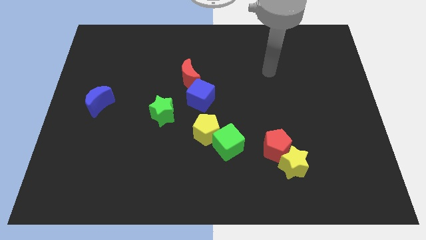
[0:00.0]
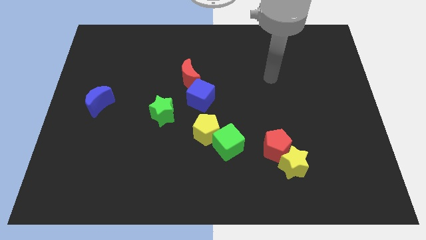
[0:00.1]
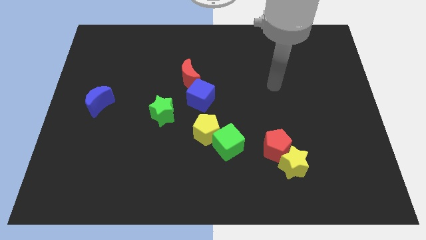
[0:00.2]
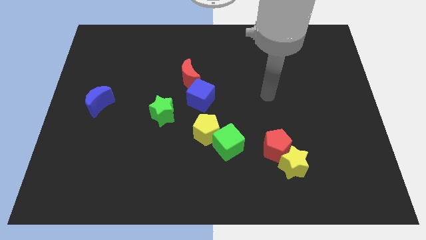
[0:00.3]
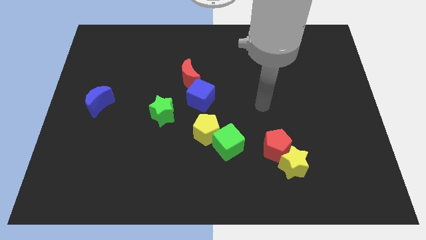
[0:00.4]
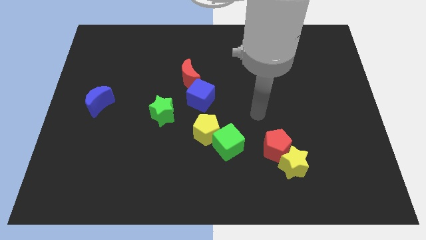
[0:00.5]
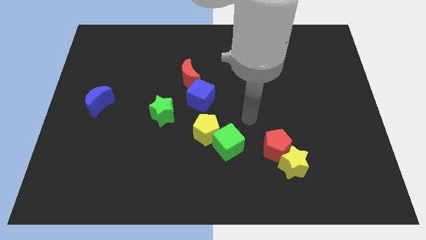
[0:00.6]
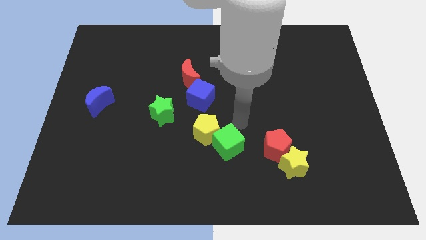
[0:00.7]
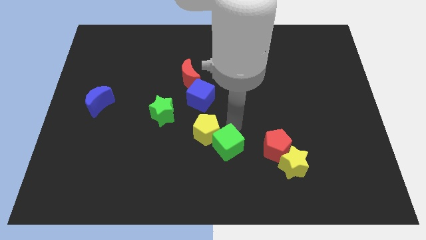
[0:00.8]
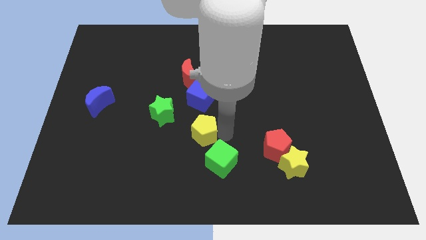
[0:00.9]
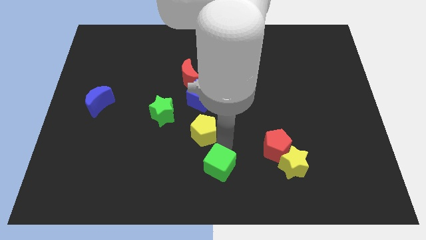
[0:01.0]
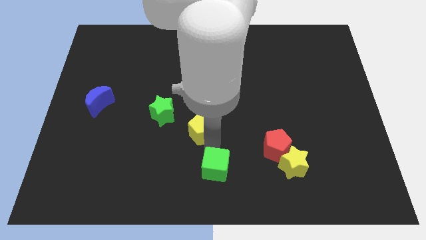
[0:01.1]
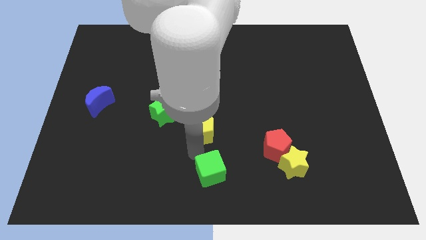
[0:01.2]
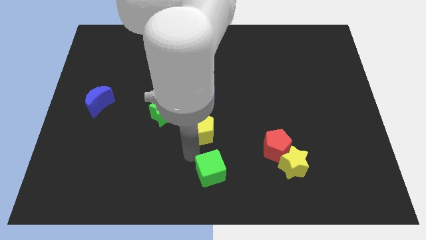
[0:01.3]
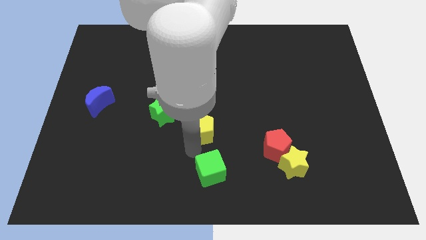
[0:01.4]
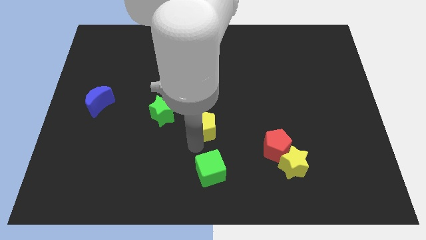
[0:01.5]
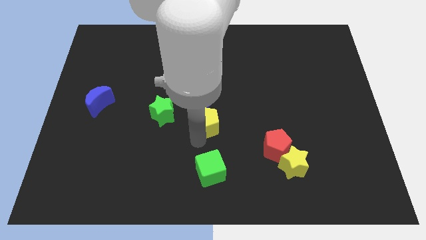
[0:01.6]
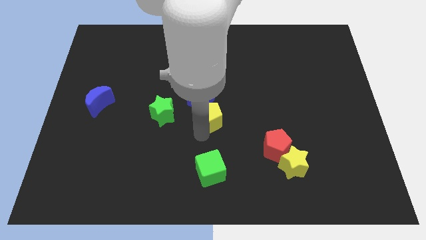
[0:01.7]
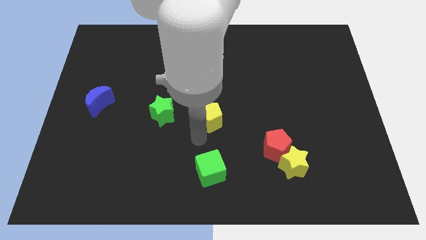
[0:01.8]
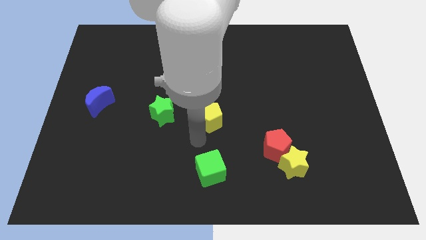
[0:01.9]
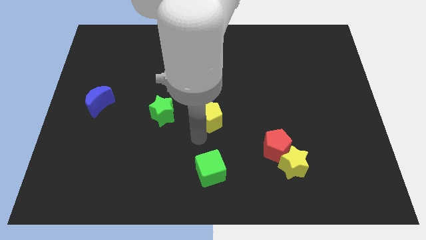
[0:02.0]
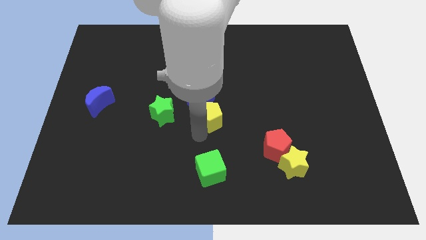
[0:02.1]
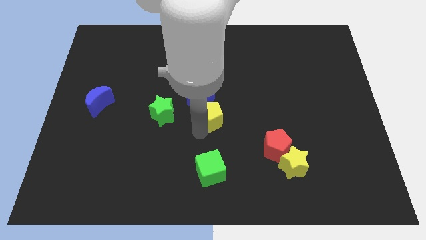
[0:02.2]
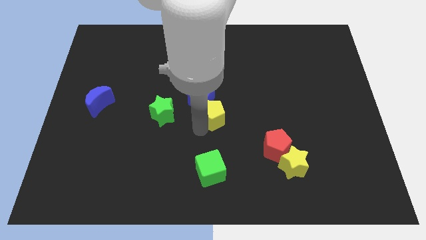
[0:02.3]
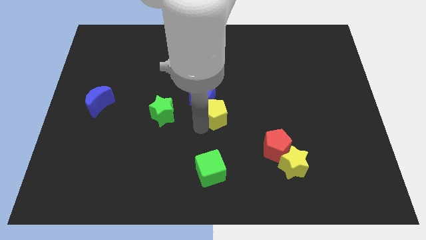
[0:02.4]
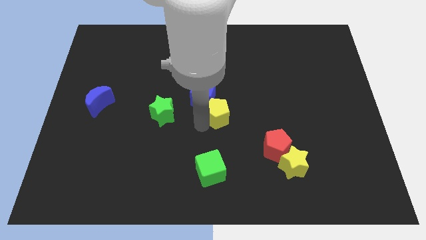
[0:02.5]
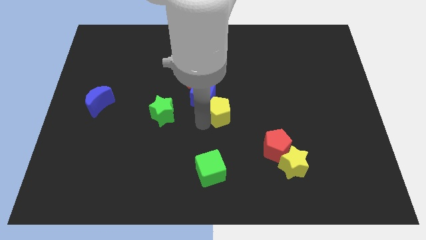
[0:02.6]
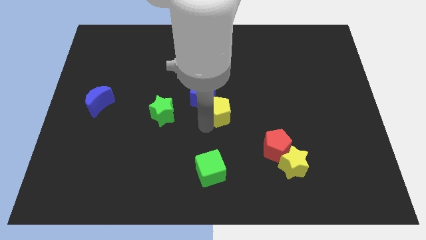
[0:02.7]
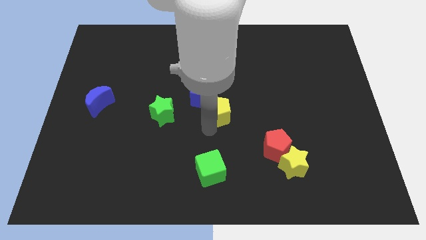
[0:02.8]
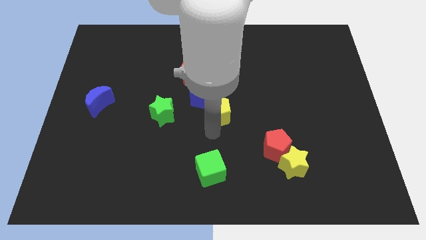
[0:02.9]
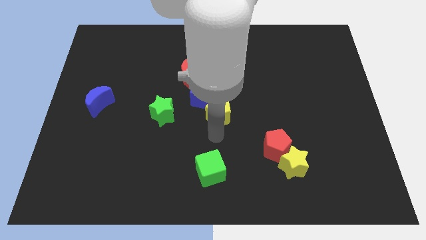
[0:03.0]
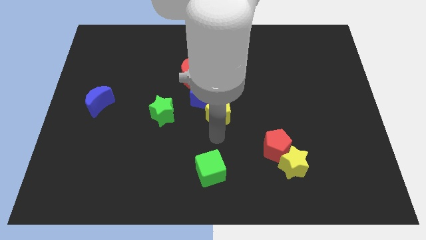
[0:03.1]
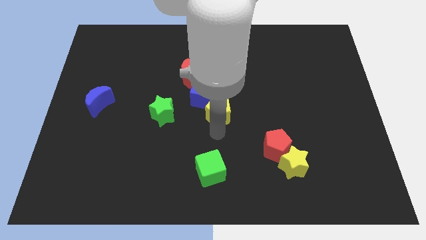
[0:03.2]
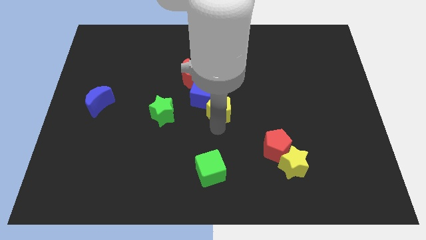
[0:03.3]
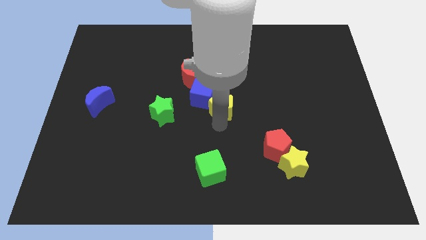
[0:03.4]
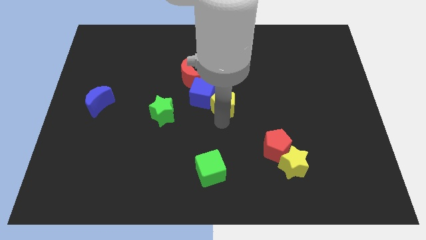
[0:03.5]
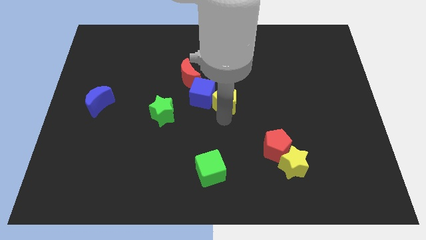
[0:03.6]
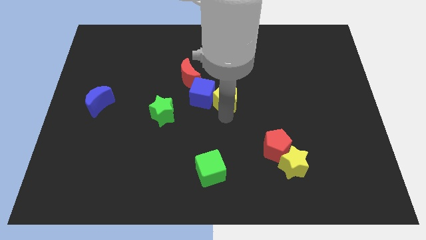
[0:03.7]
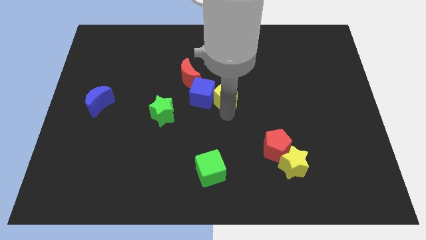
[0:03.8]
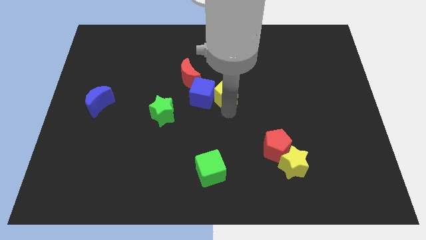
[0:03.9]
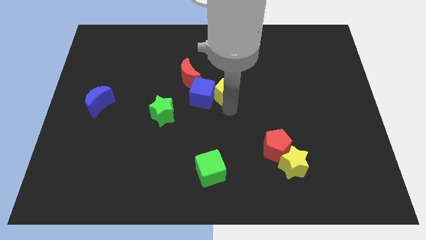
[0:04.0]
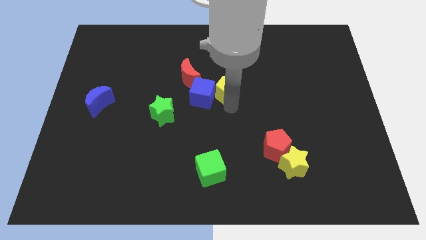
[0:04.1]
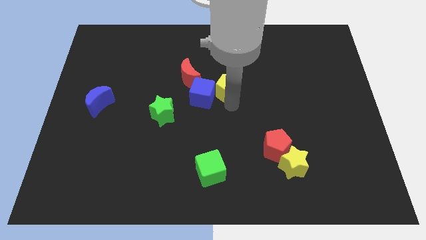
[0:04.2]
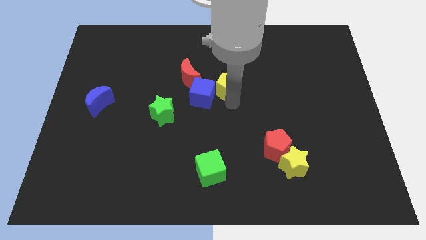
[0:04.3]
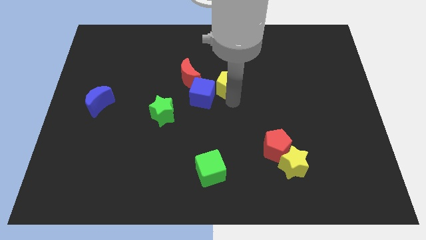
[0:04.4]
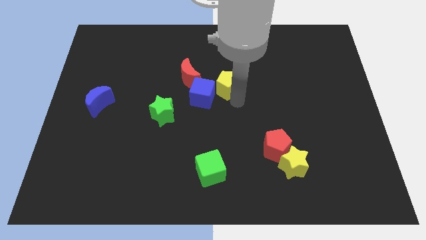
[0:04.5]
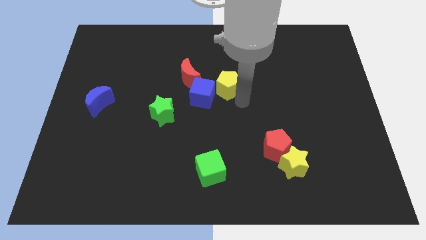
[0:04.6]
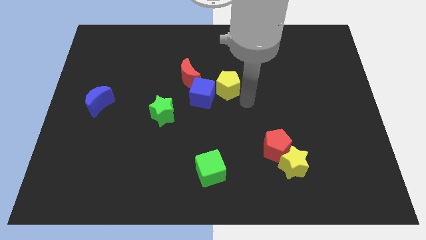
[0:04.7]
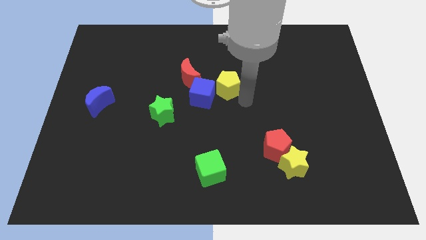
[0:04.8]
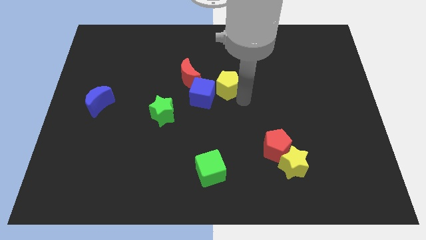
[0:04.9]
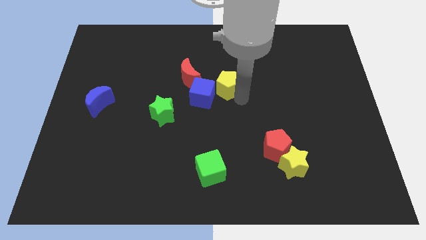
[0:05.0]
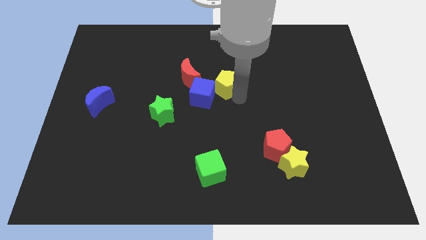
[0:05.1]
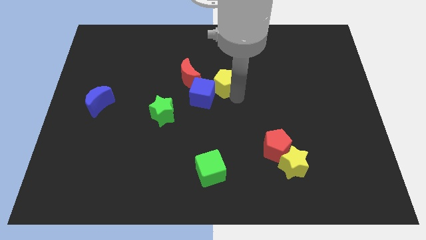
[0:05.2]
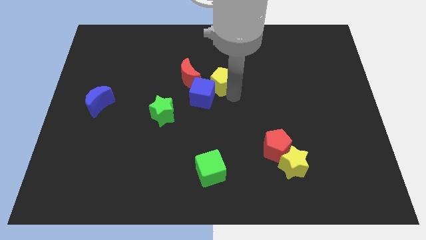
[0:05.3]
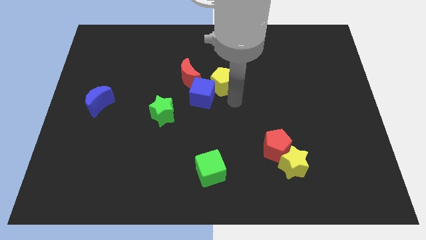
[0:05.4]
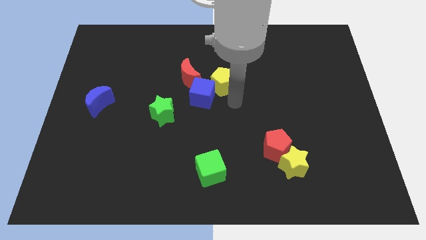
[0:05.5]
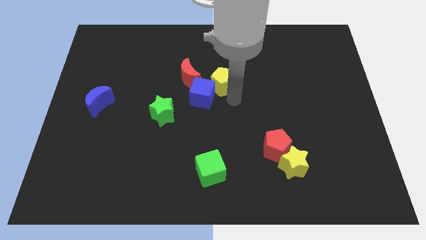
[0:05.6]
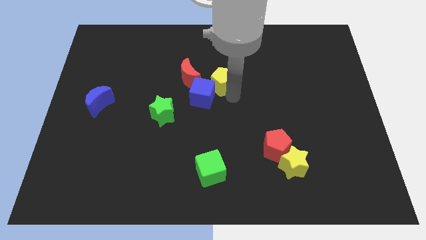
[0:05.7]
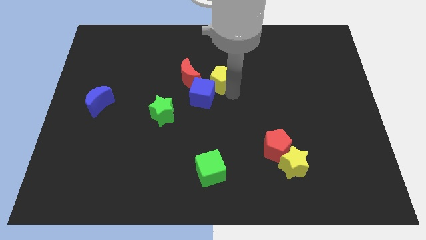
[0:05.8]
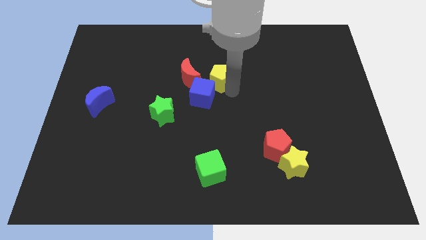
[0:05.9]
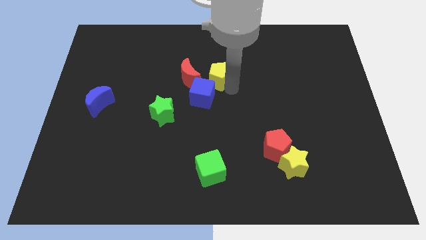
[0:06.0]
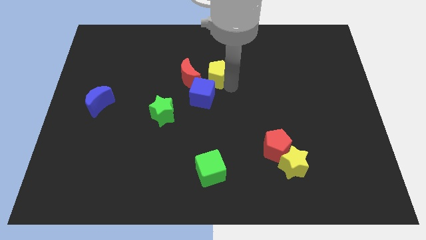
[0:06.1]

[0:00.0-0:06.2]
push the yellow pentagon to the top right of the red moon
